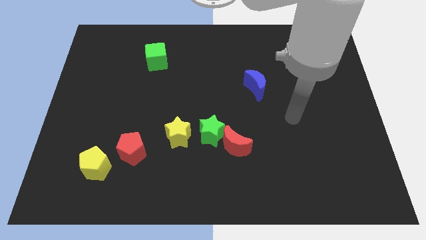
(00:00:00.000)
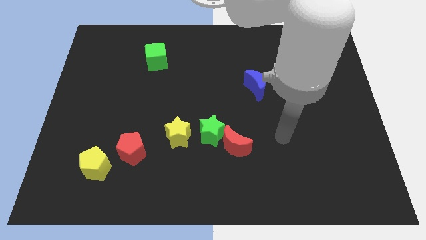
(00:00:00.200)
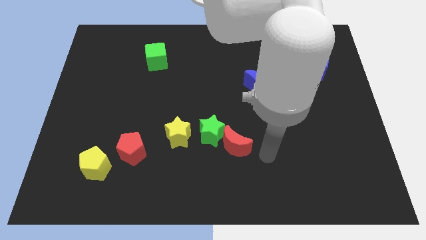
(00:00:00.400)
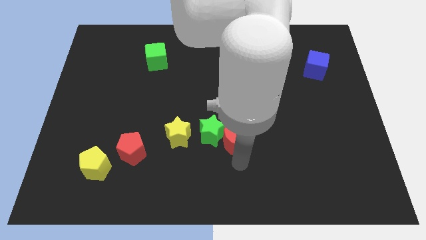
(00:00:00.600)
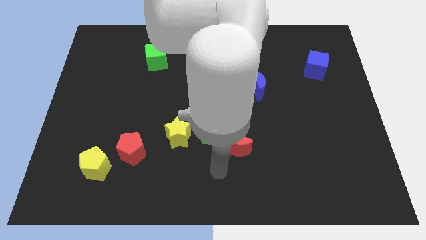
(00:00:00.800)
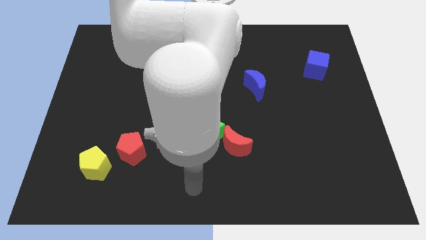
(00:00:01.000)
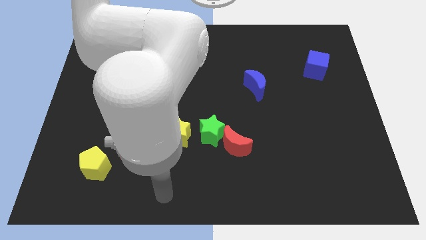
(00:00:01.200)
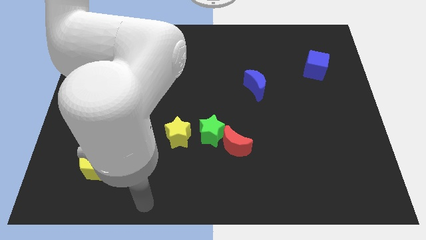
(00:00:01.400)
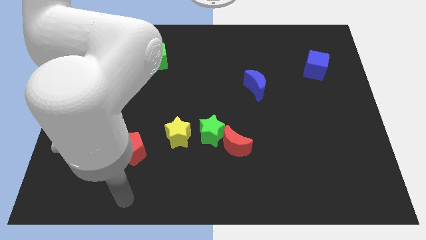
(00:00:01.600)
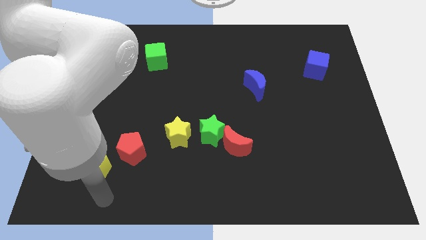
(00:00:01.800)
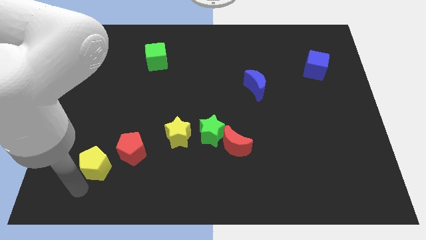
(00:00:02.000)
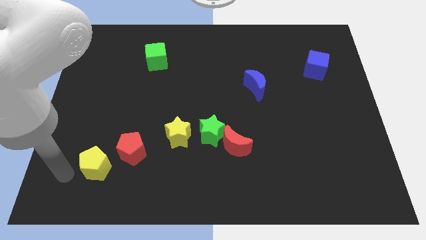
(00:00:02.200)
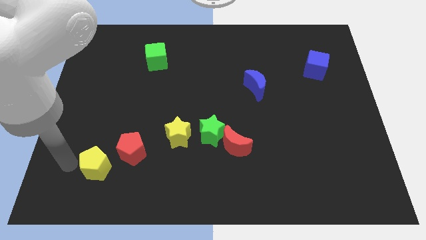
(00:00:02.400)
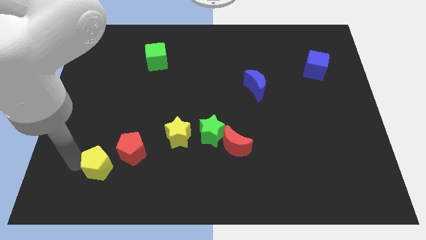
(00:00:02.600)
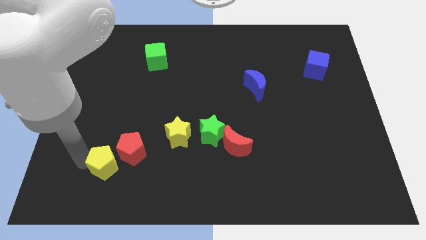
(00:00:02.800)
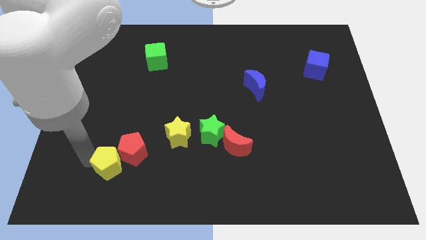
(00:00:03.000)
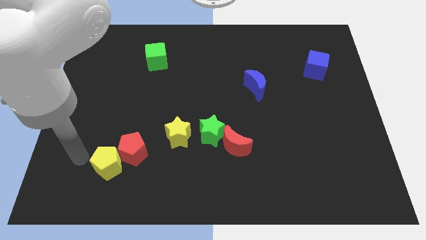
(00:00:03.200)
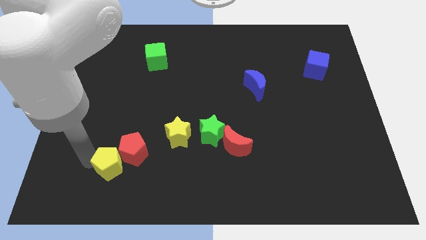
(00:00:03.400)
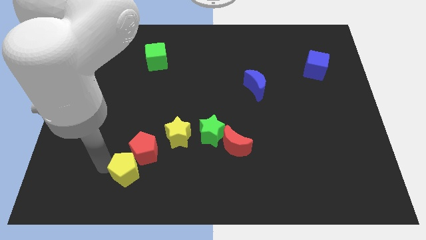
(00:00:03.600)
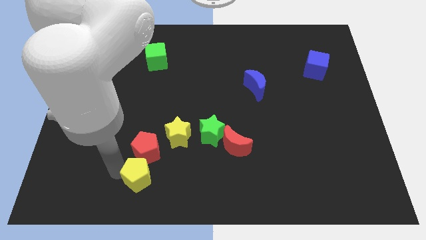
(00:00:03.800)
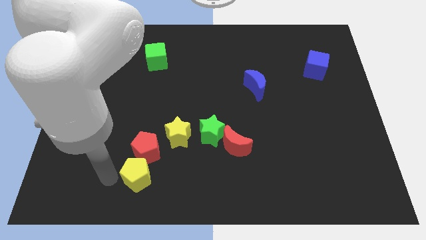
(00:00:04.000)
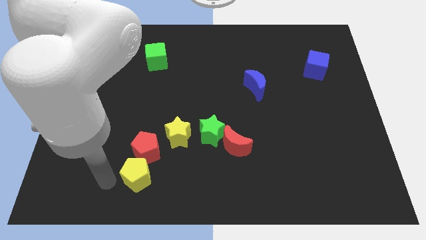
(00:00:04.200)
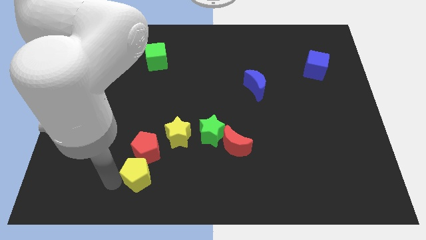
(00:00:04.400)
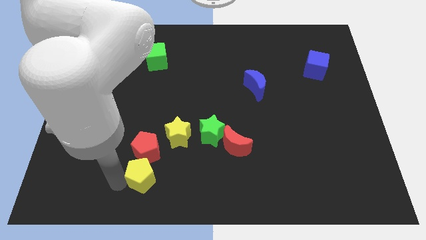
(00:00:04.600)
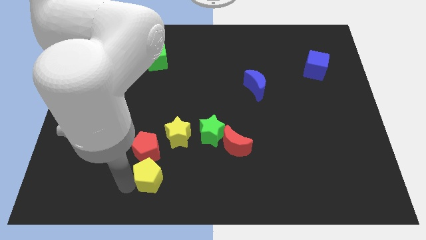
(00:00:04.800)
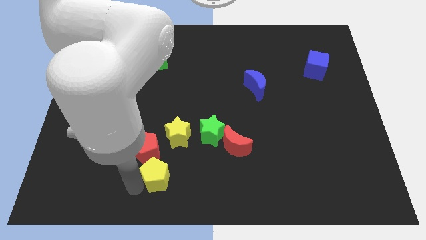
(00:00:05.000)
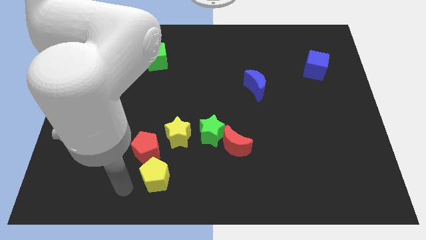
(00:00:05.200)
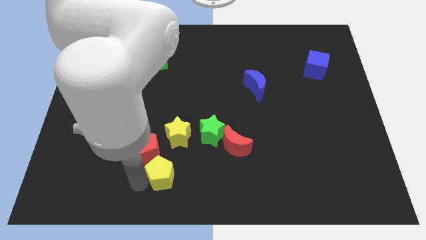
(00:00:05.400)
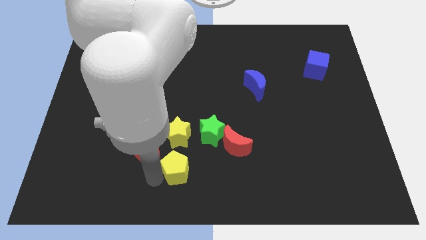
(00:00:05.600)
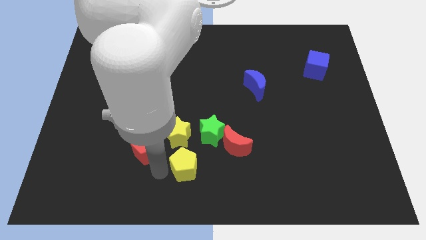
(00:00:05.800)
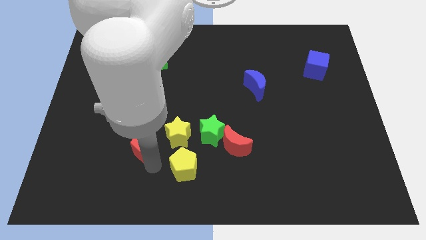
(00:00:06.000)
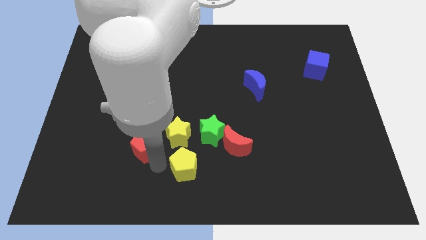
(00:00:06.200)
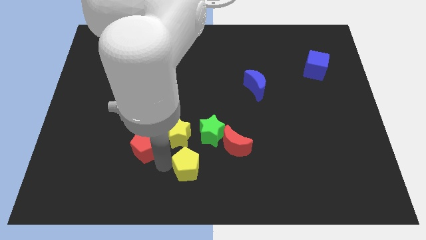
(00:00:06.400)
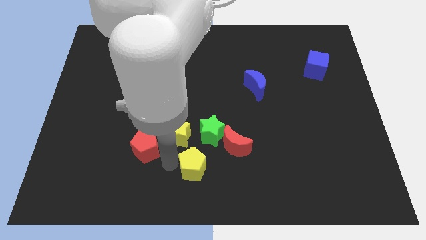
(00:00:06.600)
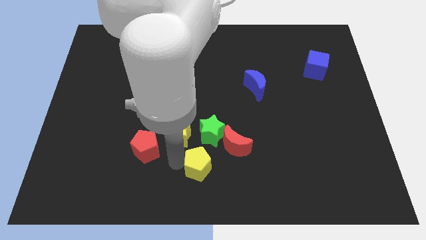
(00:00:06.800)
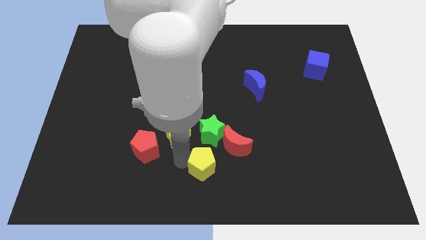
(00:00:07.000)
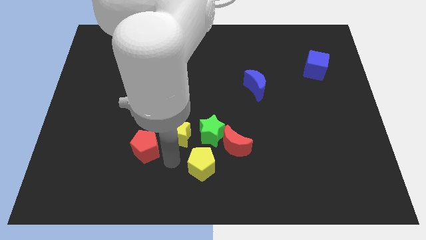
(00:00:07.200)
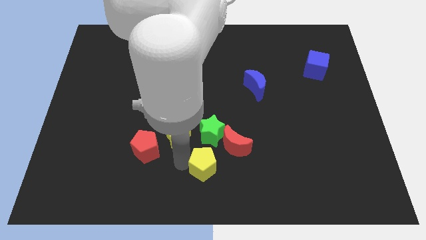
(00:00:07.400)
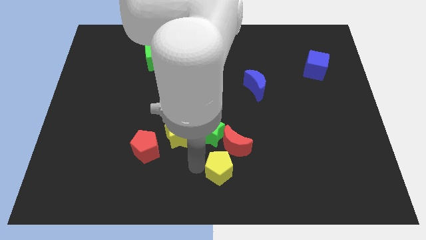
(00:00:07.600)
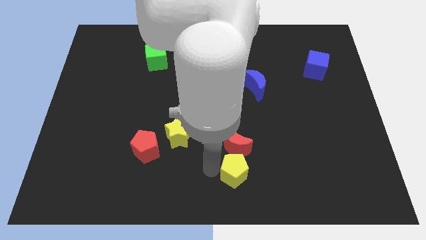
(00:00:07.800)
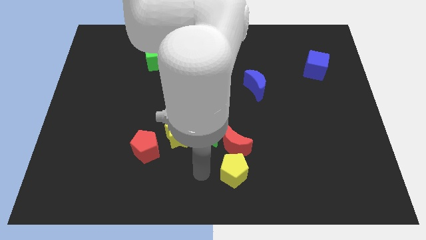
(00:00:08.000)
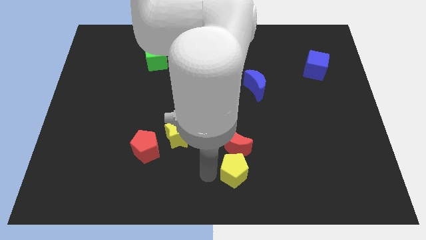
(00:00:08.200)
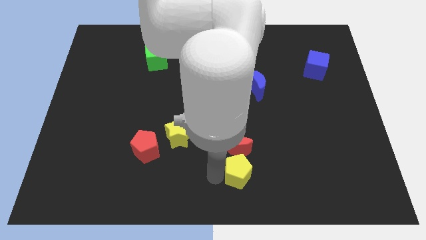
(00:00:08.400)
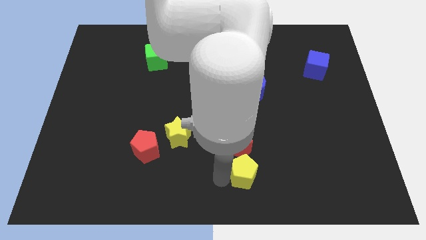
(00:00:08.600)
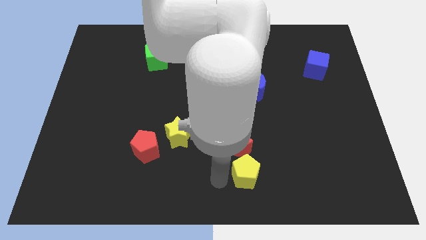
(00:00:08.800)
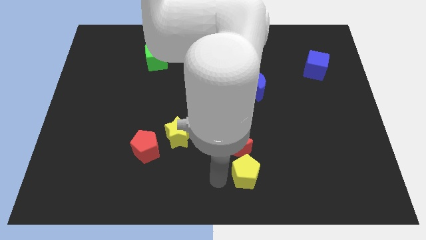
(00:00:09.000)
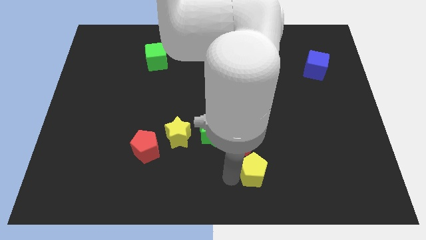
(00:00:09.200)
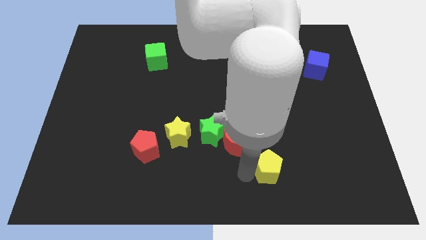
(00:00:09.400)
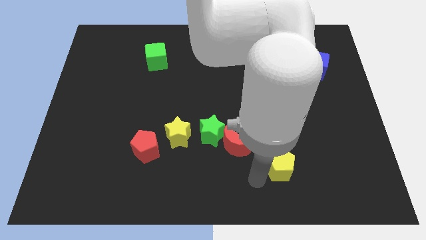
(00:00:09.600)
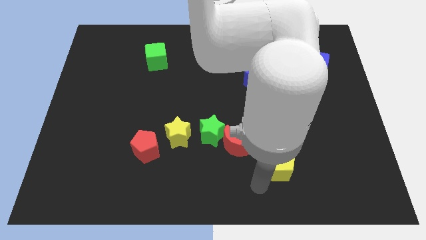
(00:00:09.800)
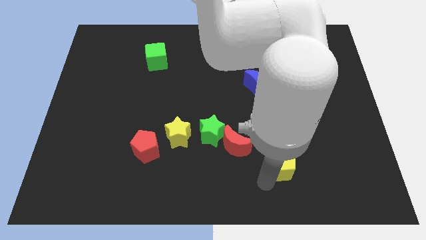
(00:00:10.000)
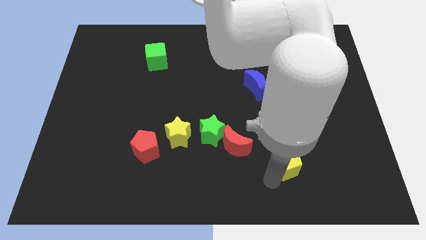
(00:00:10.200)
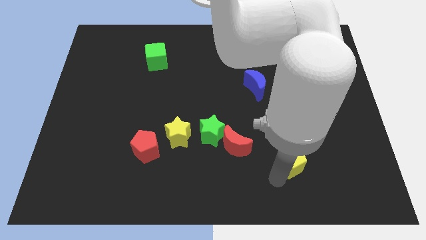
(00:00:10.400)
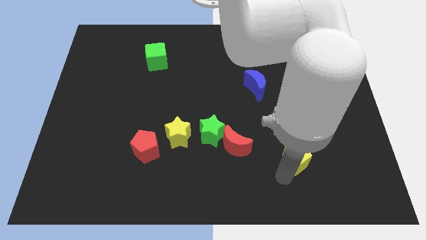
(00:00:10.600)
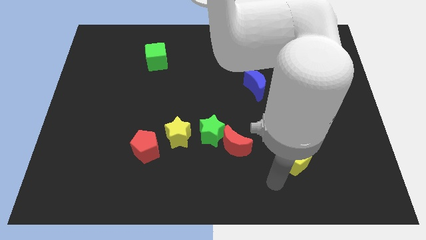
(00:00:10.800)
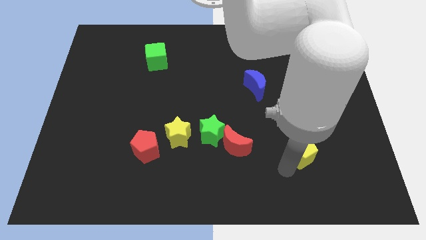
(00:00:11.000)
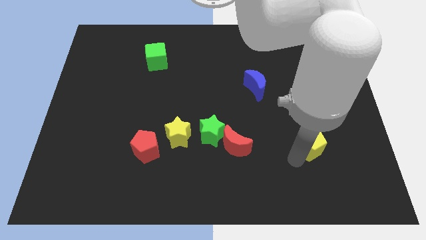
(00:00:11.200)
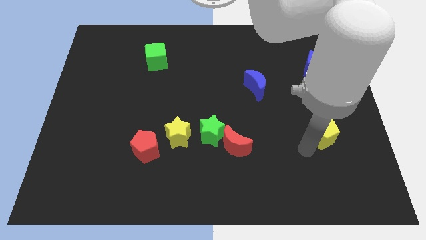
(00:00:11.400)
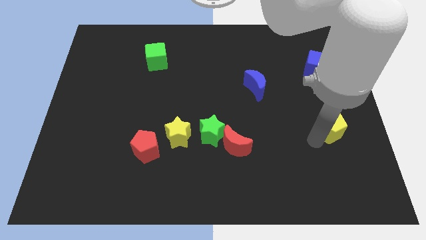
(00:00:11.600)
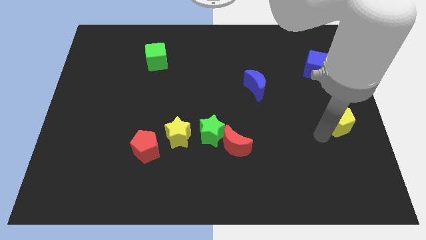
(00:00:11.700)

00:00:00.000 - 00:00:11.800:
move the yellow pentagon to the center right
